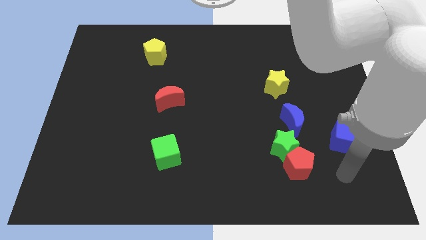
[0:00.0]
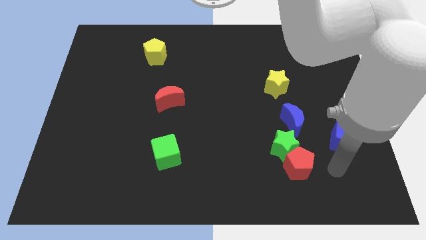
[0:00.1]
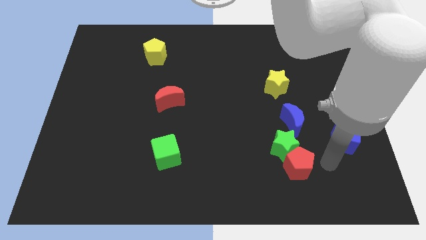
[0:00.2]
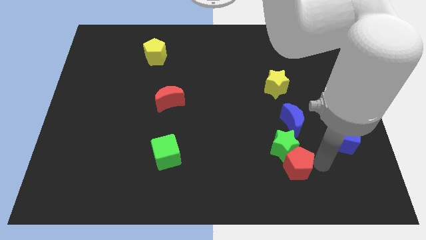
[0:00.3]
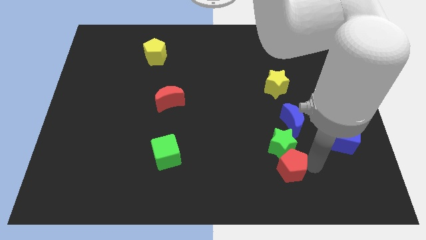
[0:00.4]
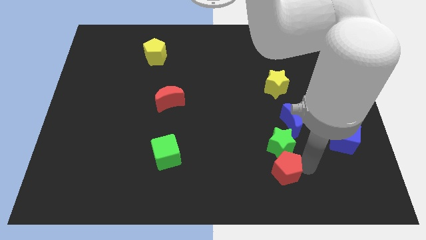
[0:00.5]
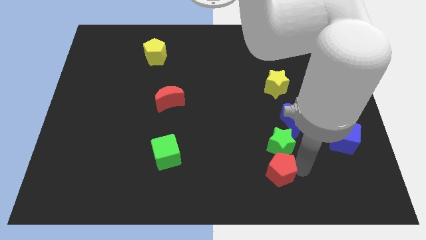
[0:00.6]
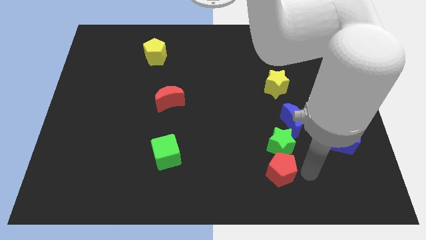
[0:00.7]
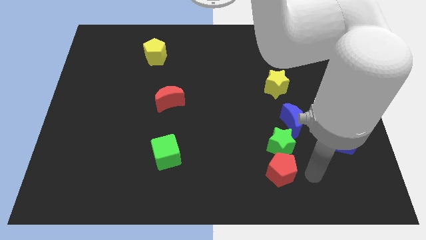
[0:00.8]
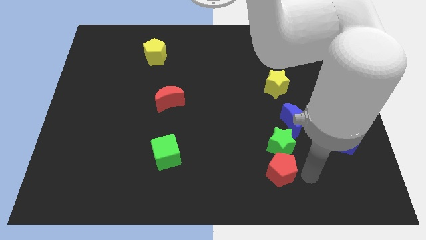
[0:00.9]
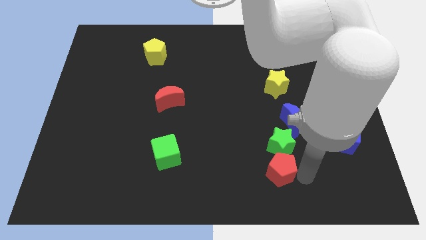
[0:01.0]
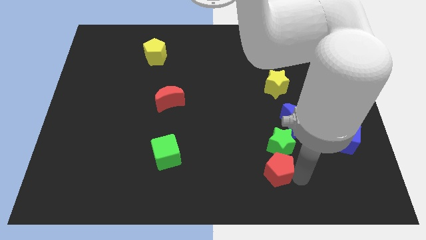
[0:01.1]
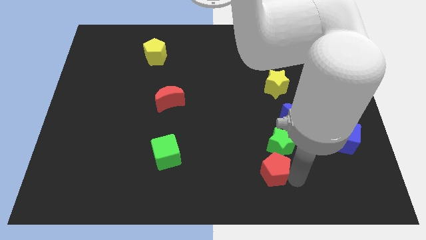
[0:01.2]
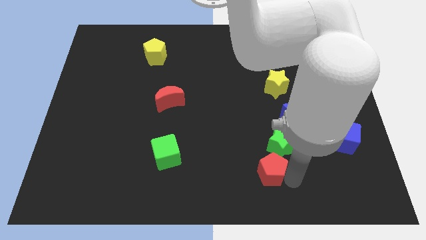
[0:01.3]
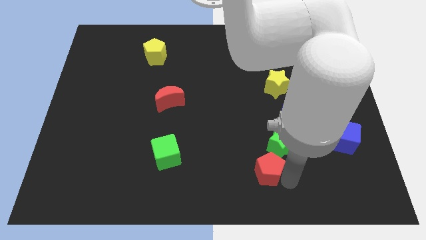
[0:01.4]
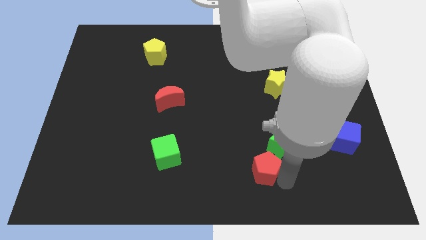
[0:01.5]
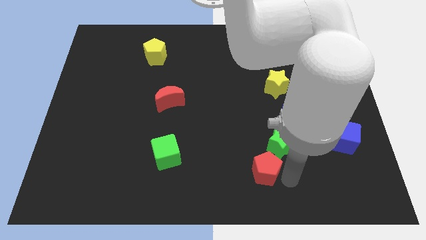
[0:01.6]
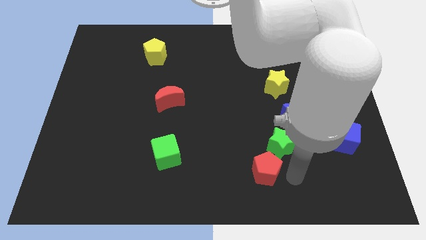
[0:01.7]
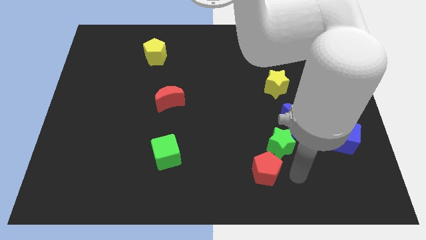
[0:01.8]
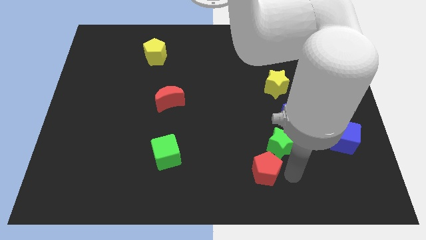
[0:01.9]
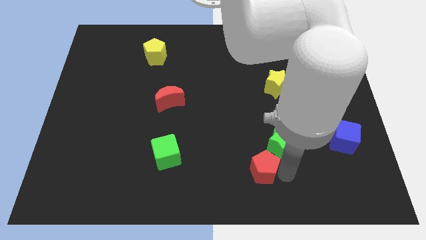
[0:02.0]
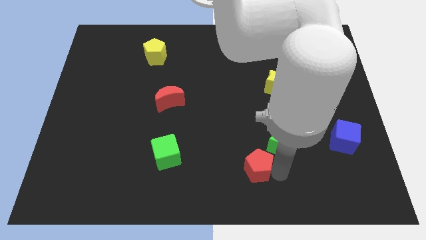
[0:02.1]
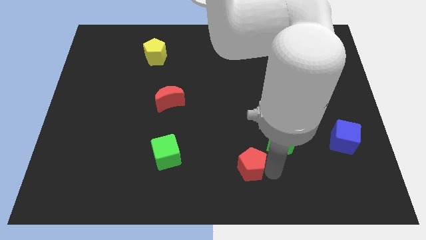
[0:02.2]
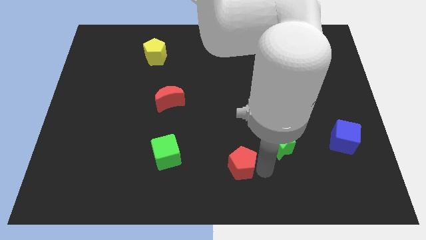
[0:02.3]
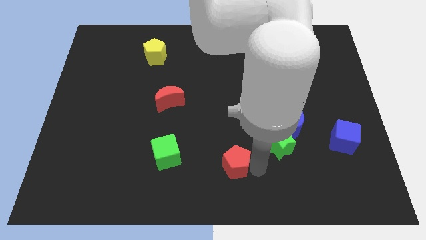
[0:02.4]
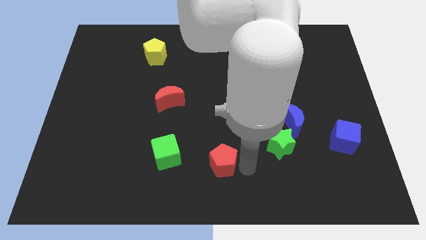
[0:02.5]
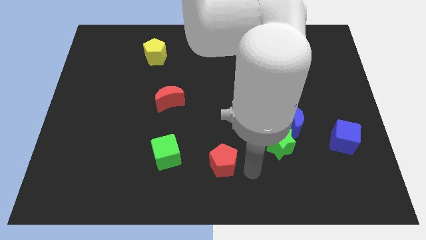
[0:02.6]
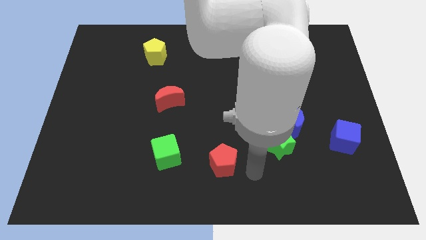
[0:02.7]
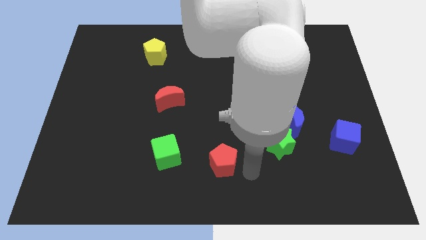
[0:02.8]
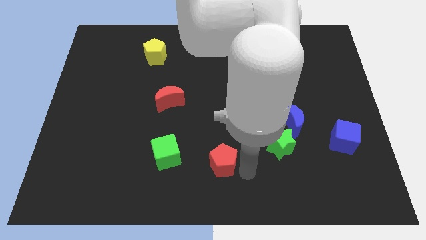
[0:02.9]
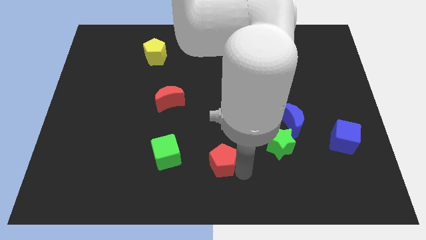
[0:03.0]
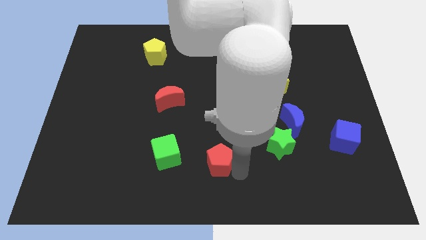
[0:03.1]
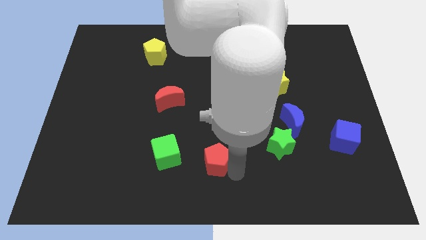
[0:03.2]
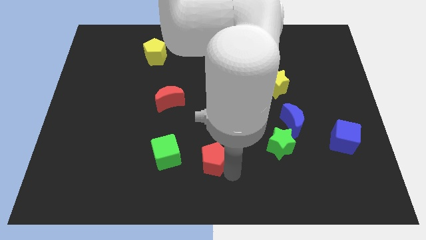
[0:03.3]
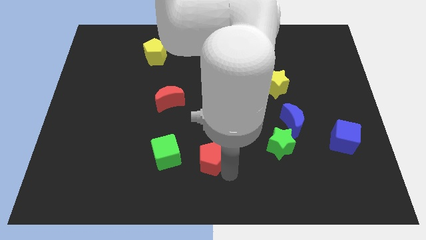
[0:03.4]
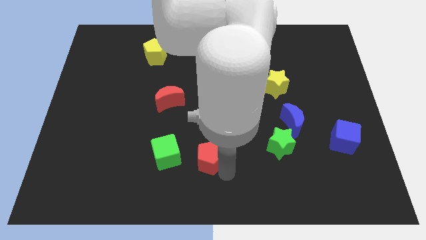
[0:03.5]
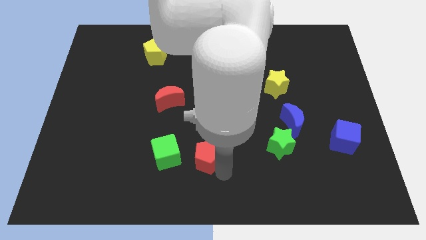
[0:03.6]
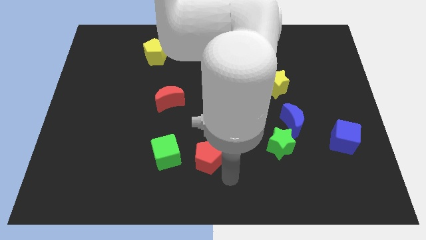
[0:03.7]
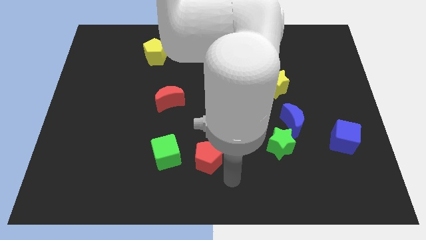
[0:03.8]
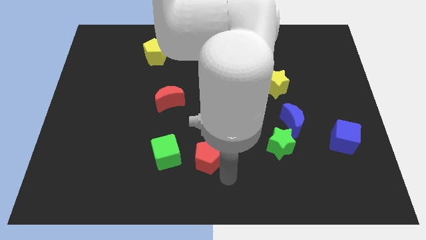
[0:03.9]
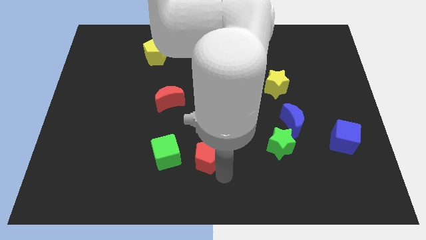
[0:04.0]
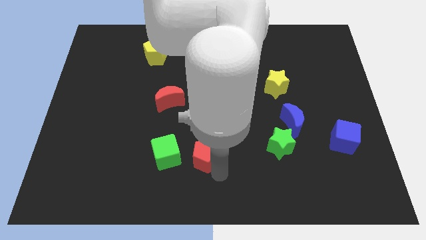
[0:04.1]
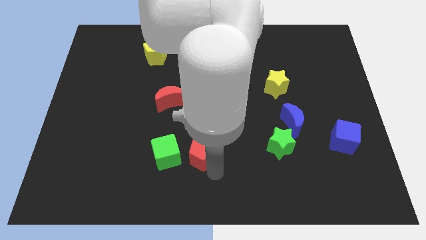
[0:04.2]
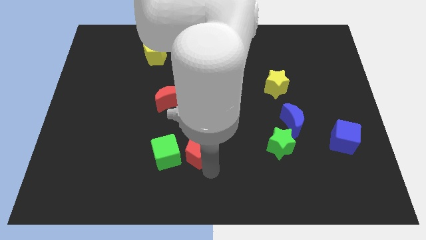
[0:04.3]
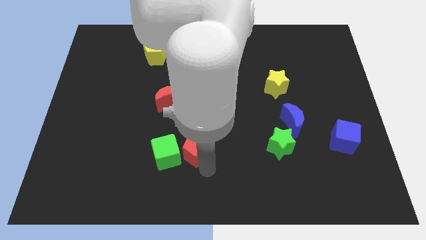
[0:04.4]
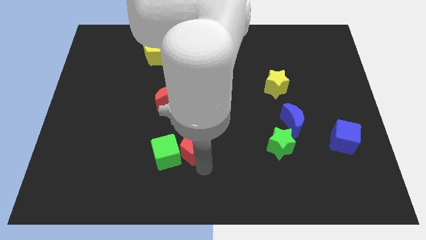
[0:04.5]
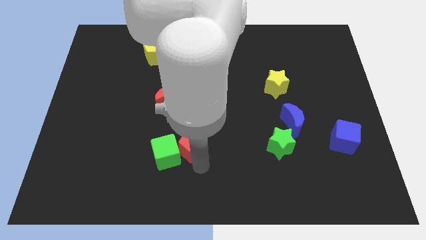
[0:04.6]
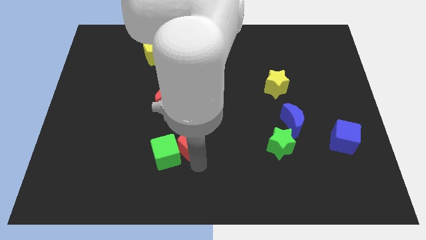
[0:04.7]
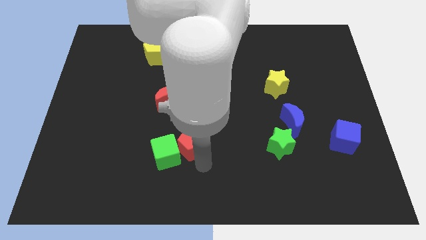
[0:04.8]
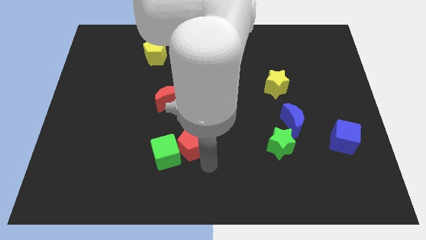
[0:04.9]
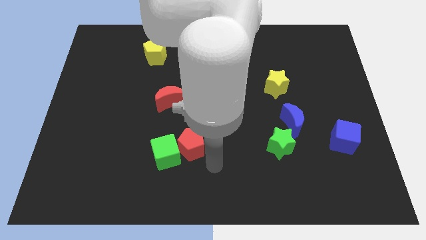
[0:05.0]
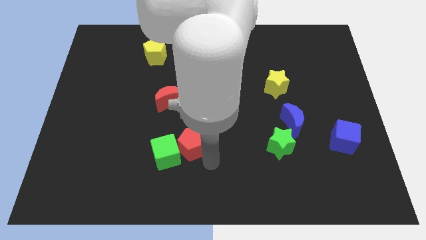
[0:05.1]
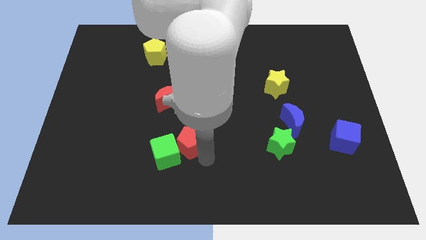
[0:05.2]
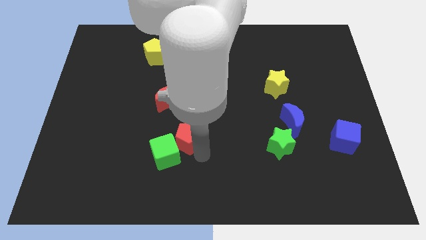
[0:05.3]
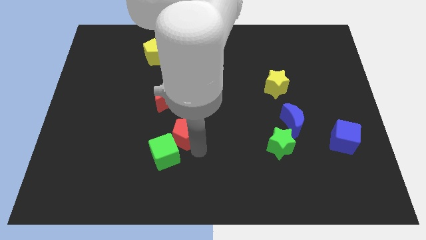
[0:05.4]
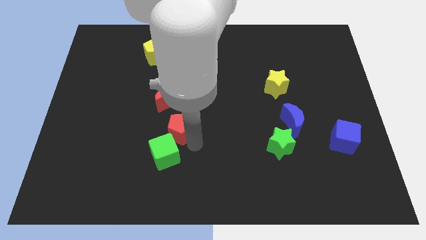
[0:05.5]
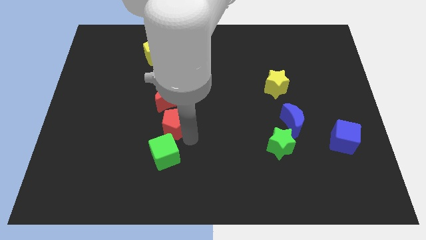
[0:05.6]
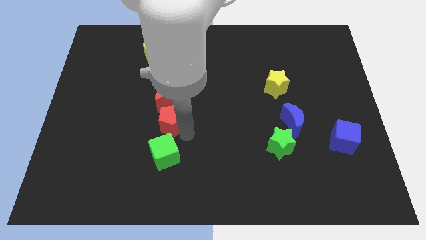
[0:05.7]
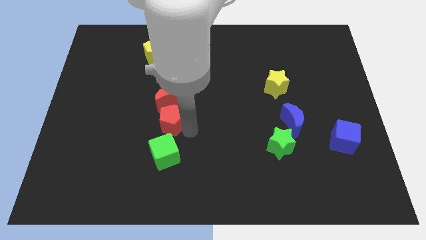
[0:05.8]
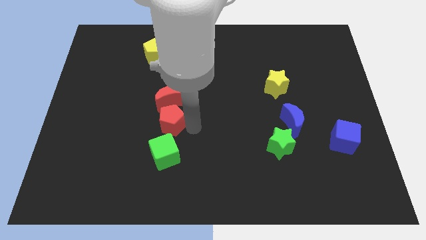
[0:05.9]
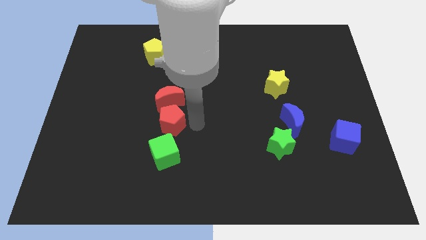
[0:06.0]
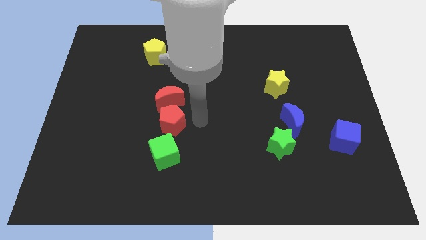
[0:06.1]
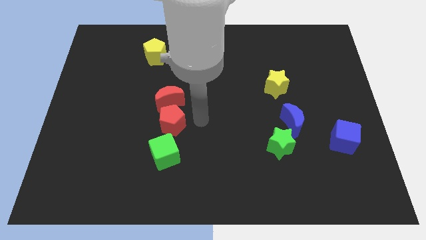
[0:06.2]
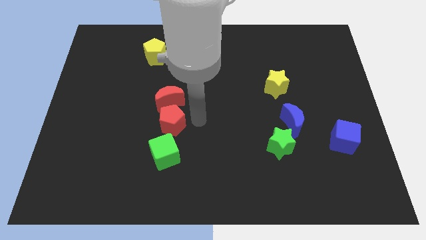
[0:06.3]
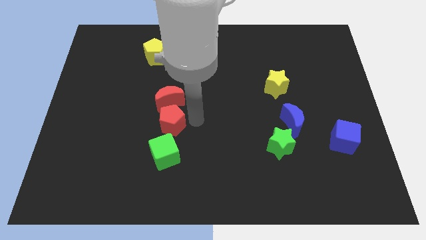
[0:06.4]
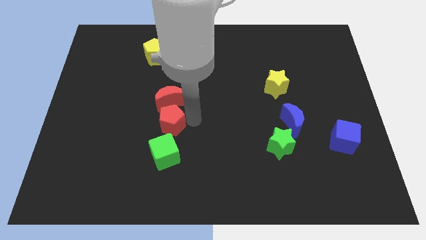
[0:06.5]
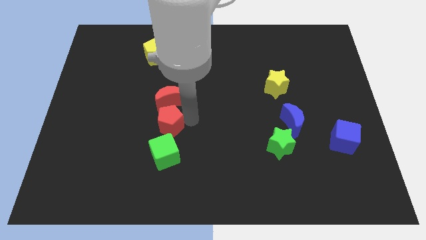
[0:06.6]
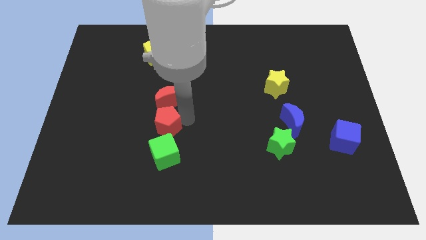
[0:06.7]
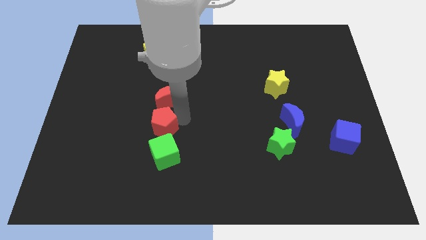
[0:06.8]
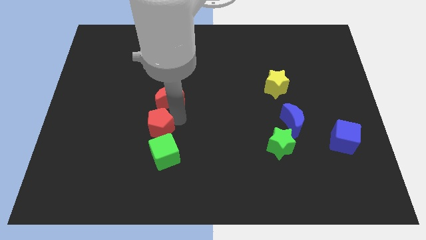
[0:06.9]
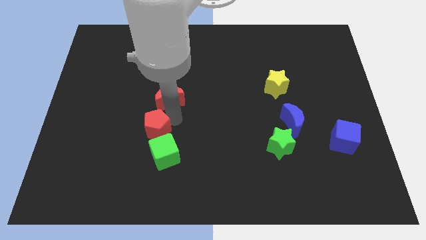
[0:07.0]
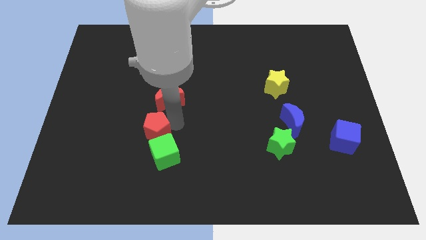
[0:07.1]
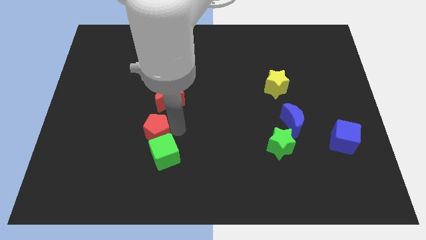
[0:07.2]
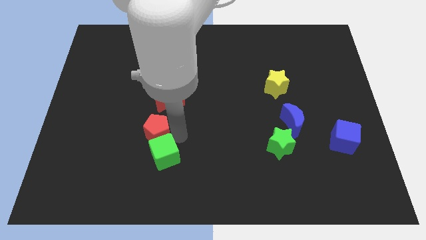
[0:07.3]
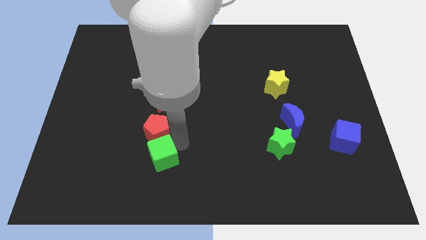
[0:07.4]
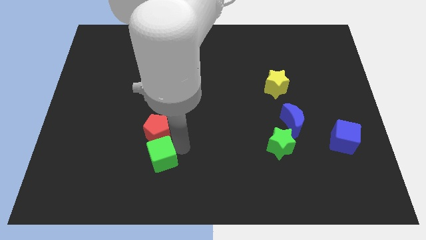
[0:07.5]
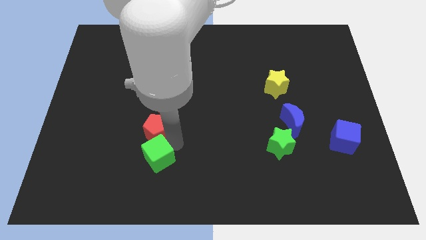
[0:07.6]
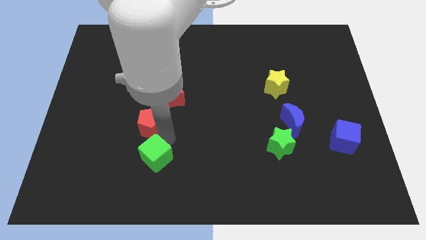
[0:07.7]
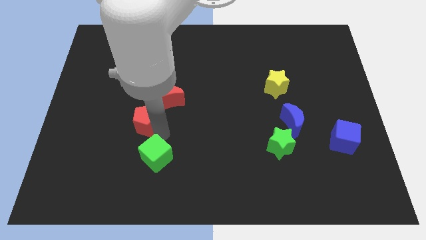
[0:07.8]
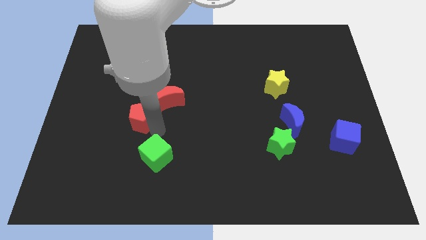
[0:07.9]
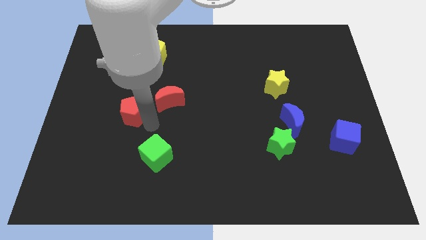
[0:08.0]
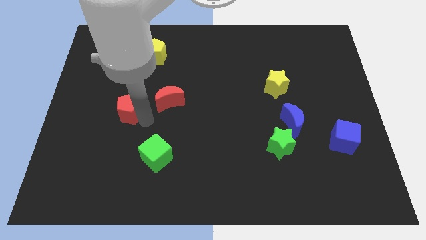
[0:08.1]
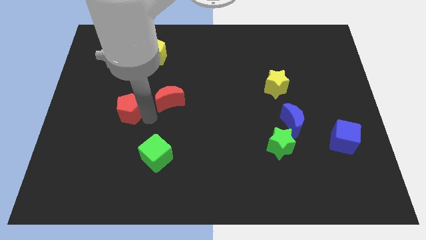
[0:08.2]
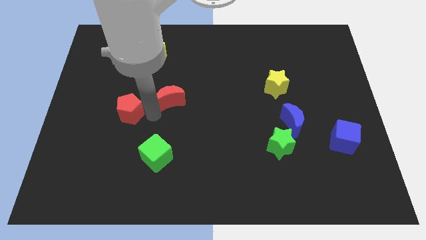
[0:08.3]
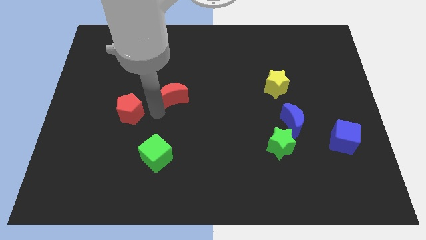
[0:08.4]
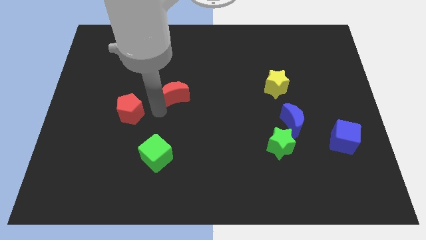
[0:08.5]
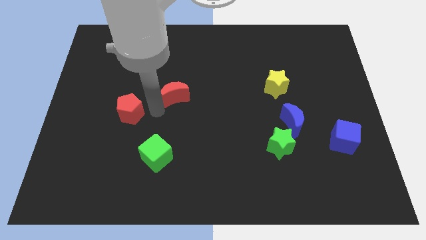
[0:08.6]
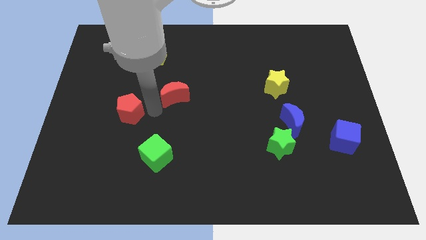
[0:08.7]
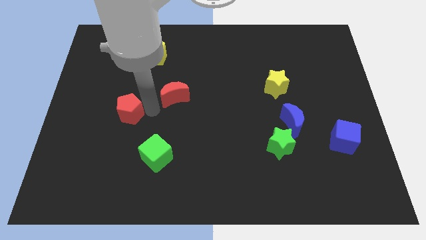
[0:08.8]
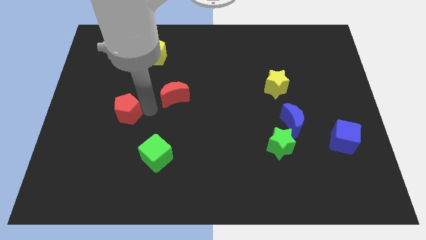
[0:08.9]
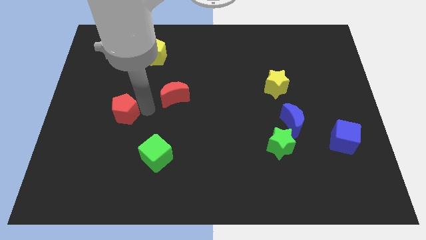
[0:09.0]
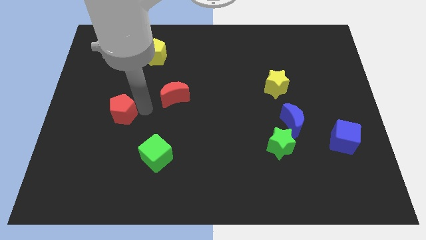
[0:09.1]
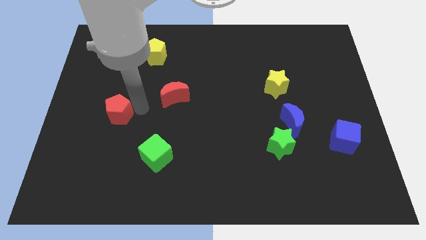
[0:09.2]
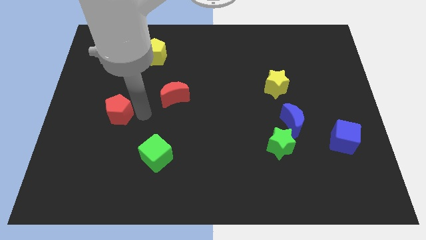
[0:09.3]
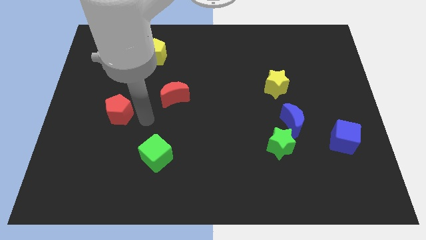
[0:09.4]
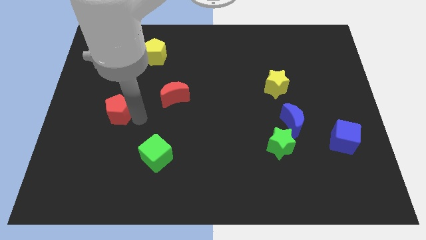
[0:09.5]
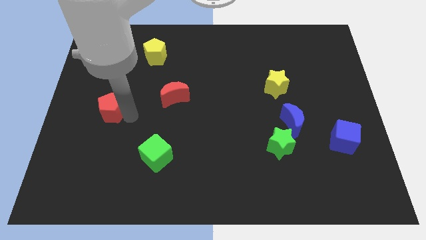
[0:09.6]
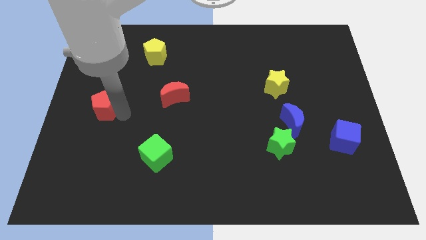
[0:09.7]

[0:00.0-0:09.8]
slide the red pentagon to the left side of the board
